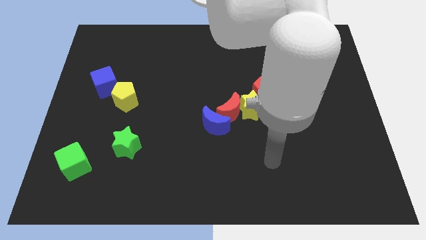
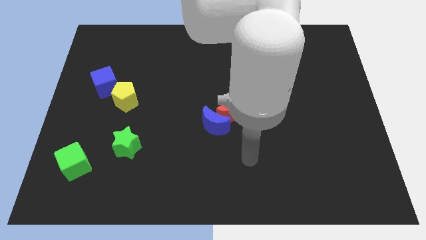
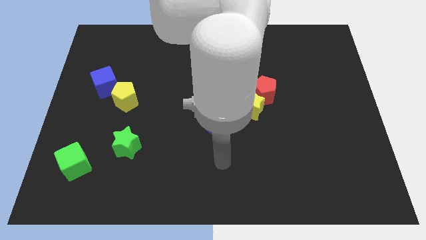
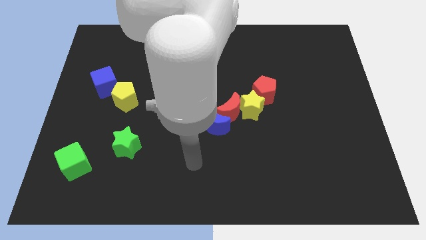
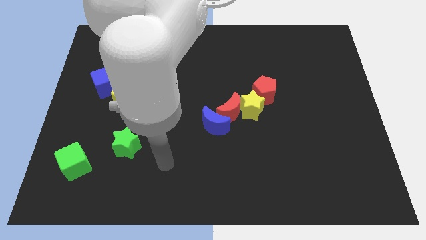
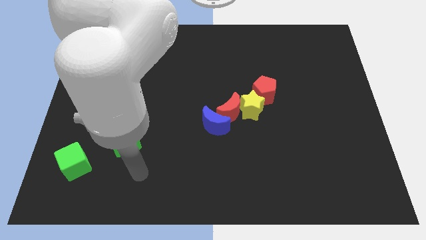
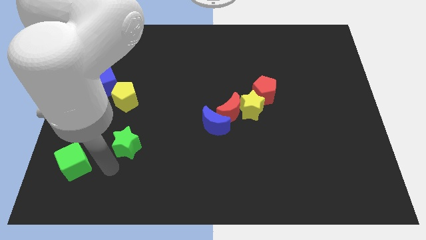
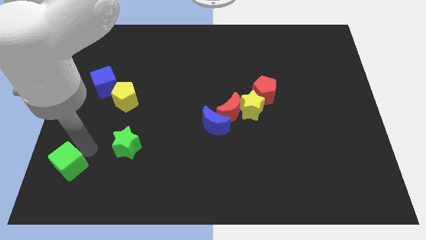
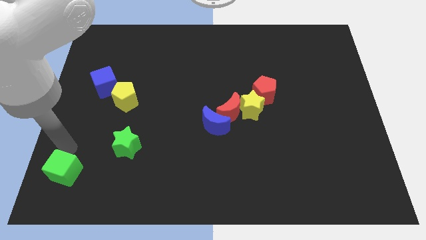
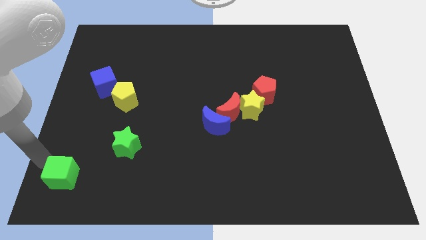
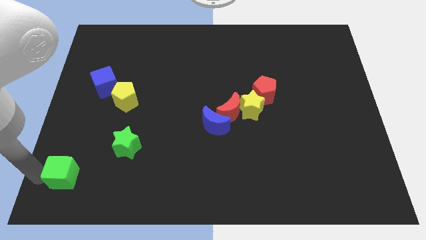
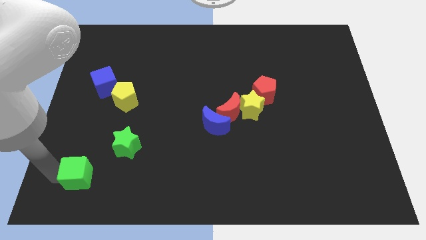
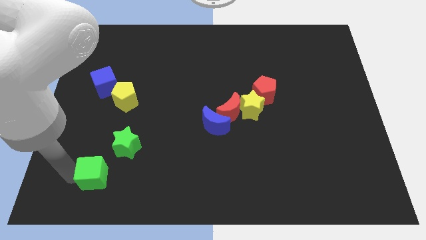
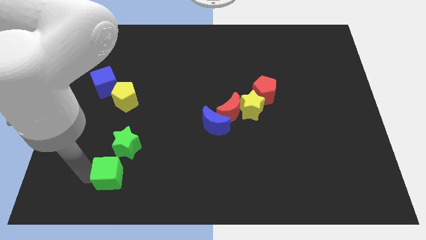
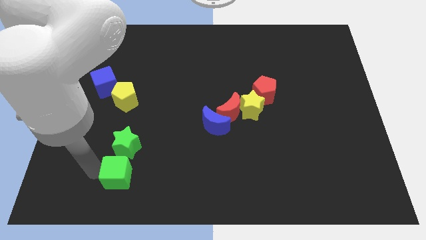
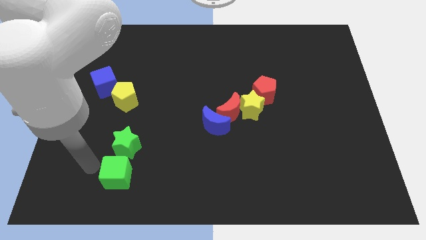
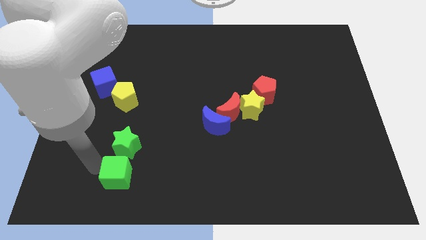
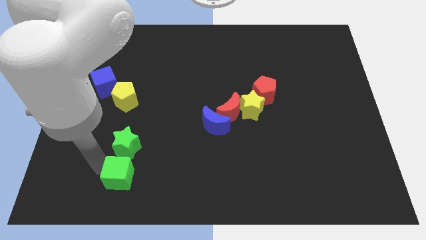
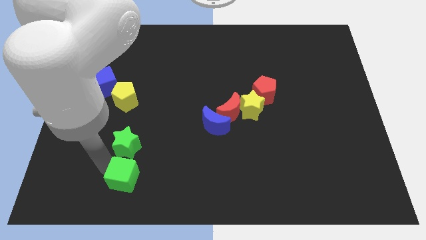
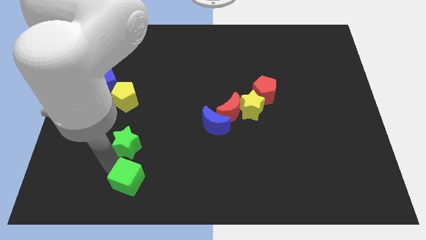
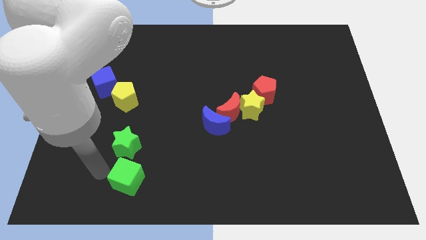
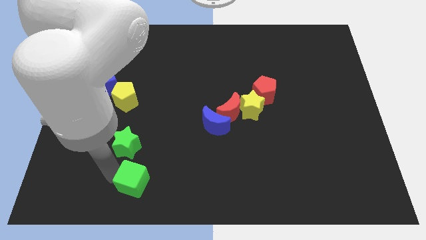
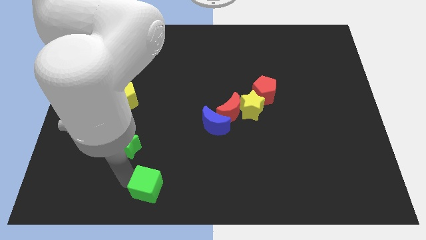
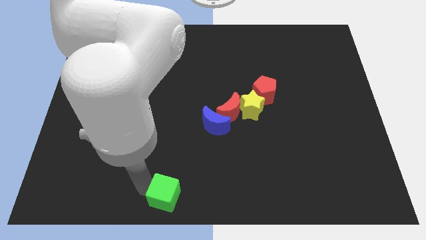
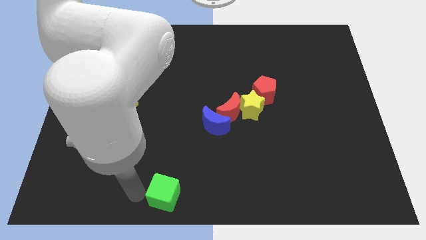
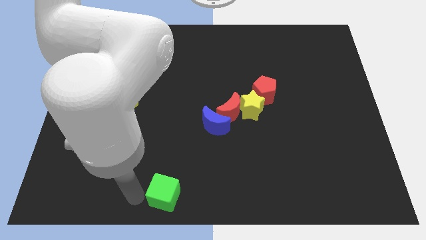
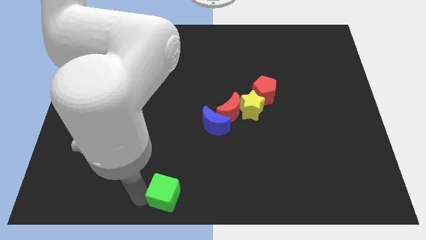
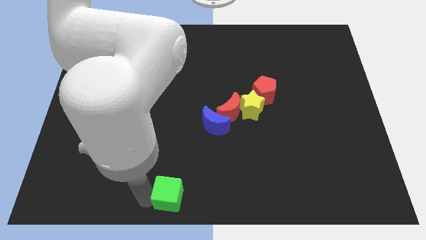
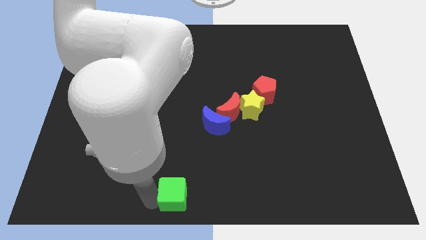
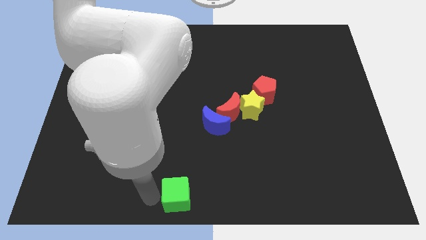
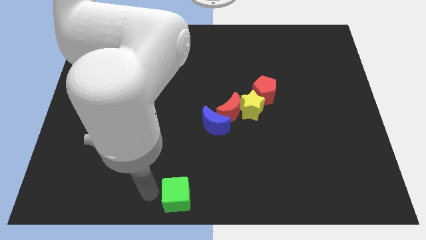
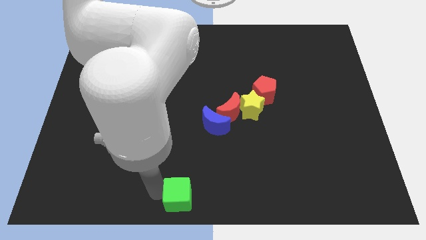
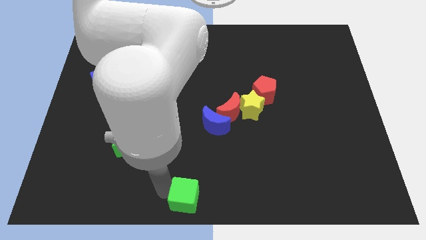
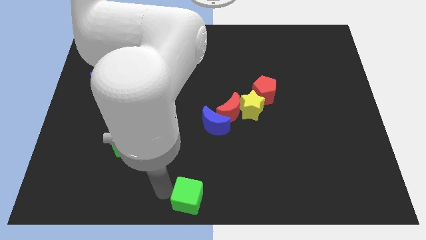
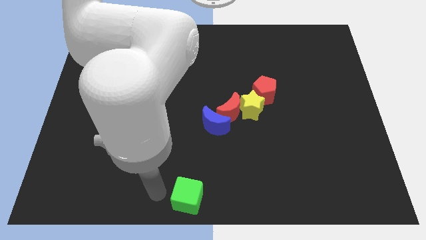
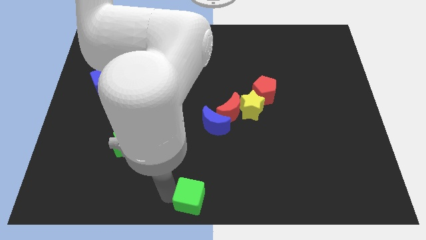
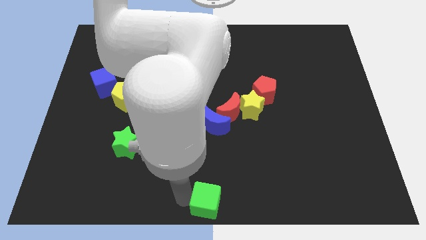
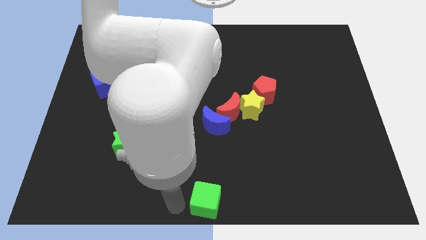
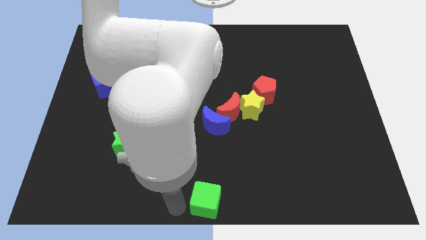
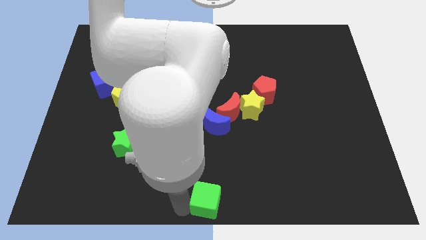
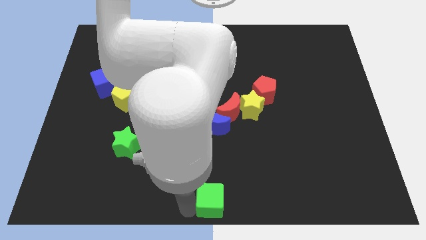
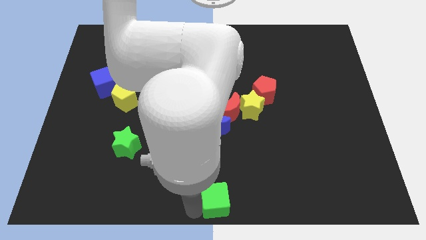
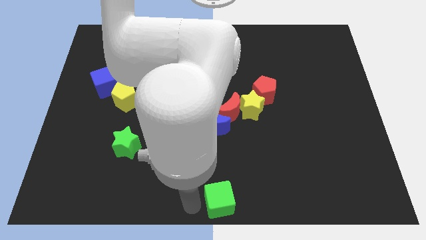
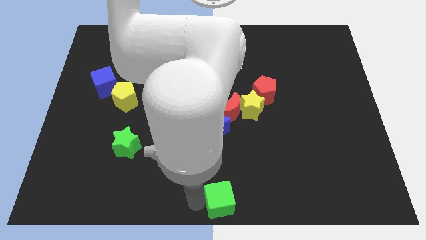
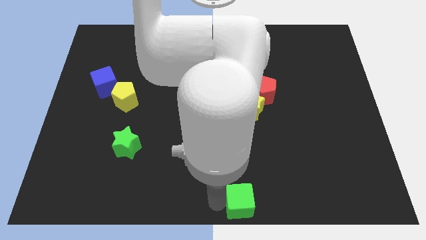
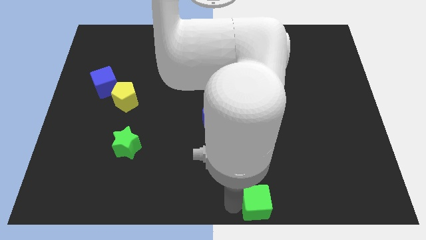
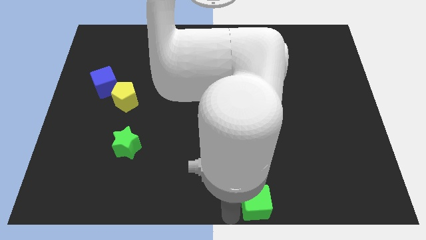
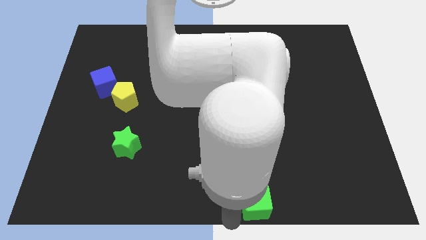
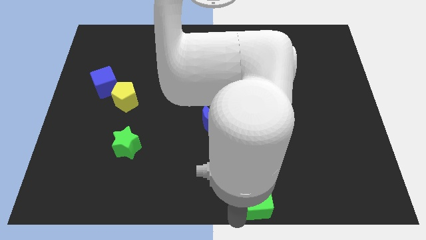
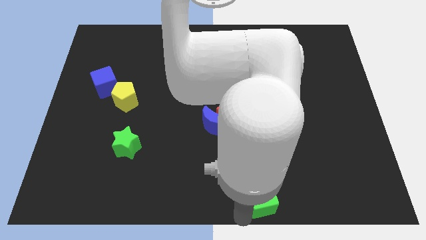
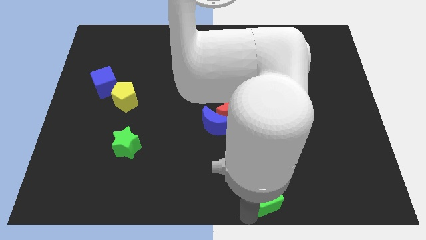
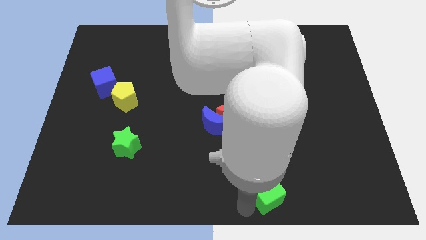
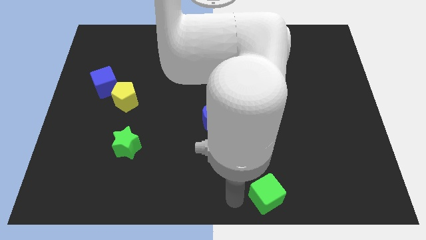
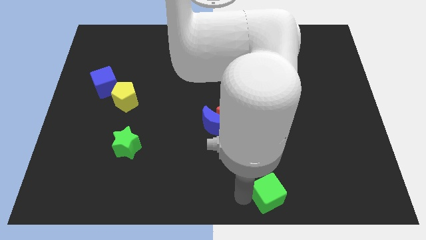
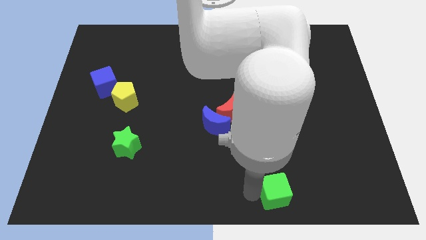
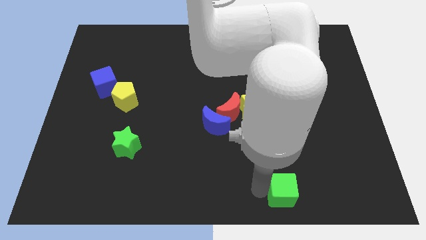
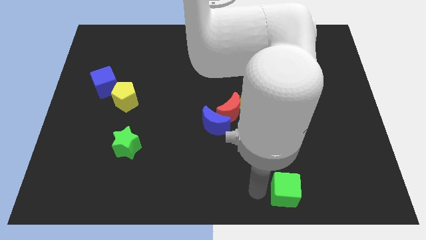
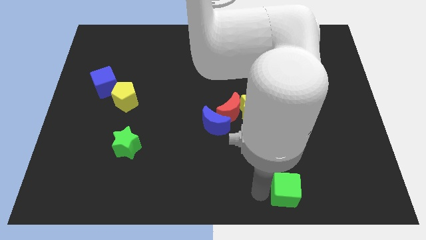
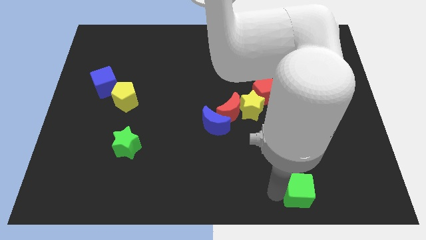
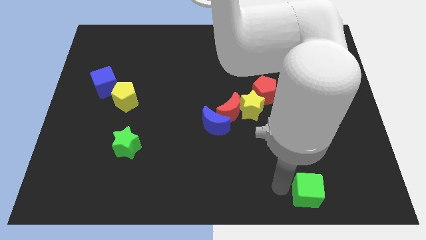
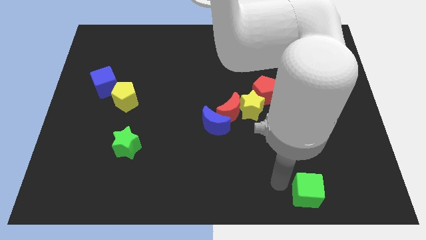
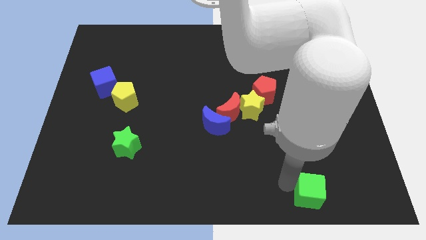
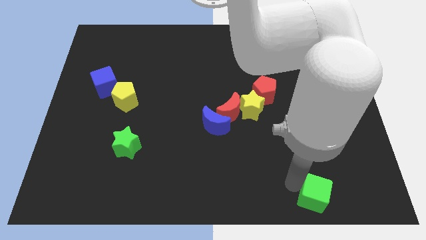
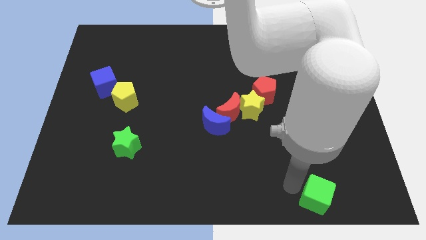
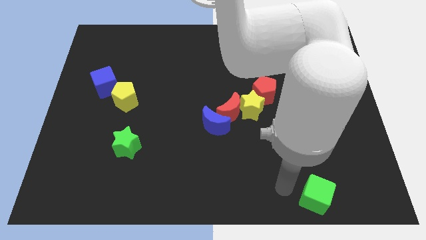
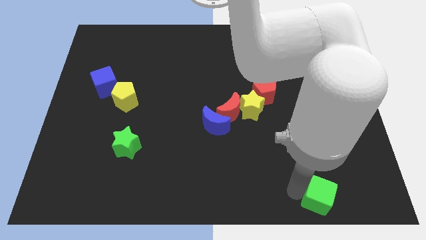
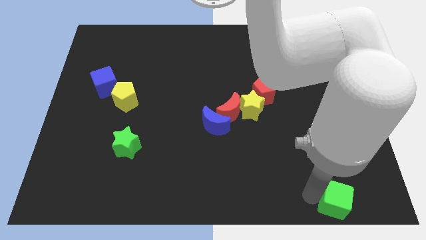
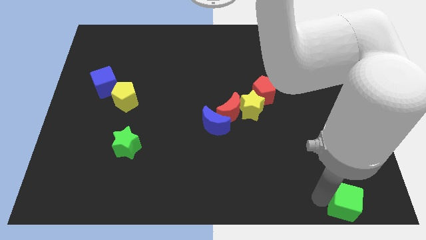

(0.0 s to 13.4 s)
move the green cube to the lower right corner

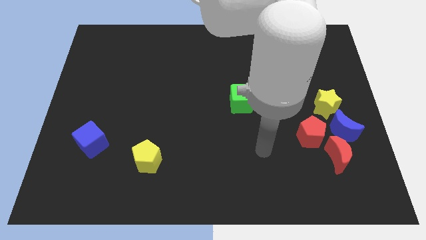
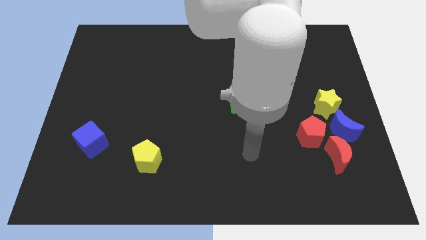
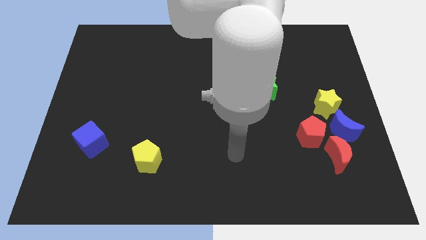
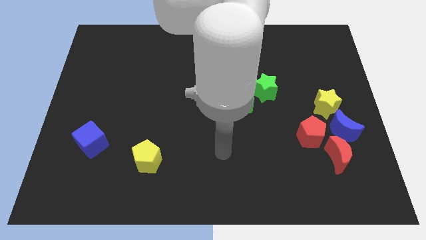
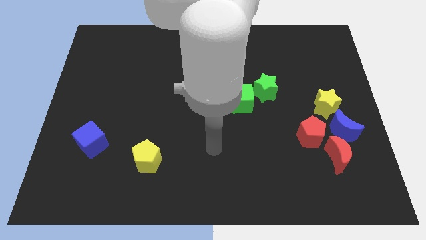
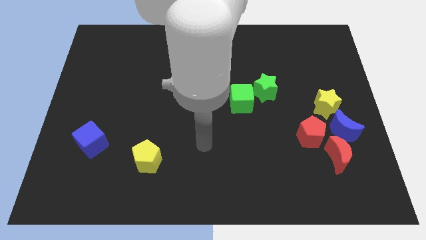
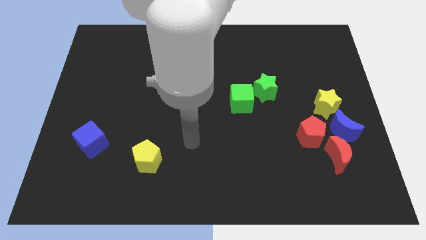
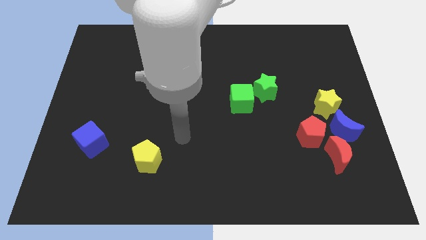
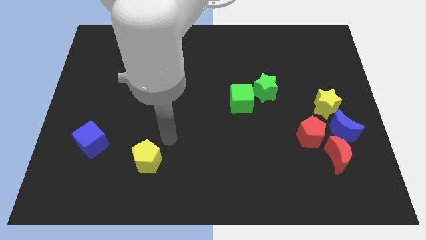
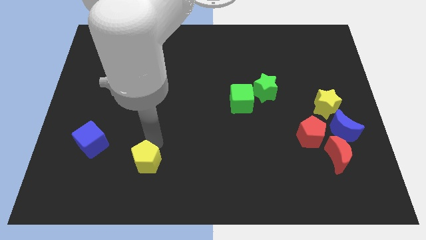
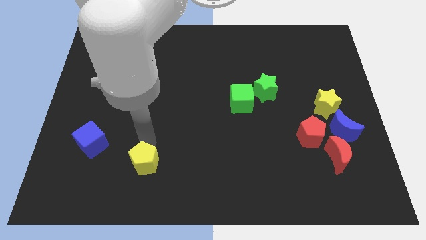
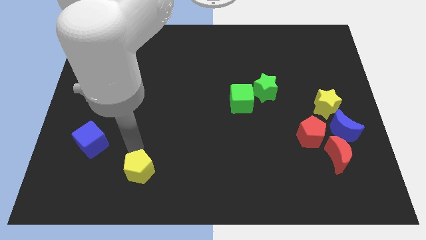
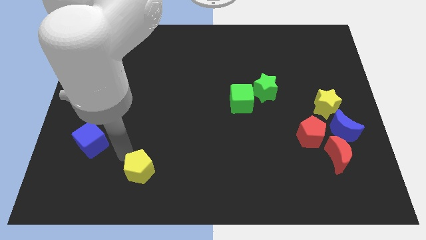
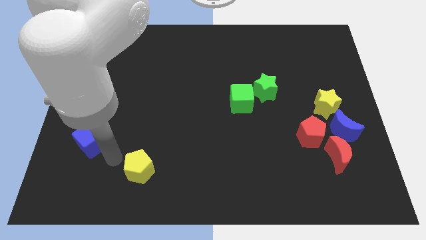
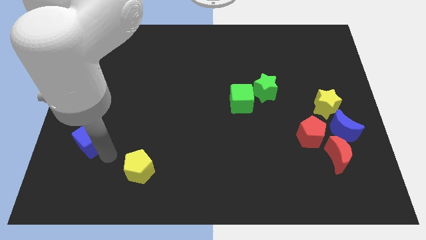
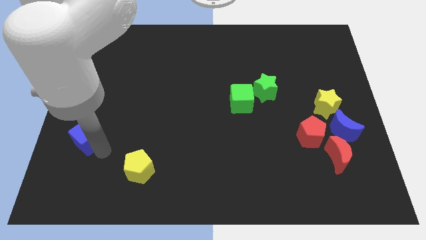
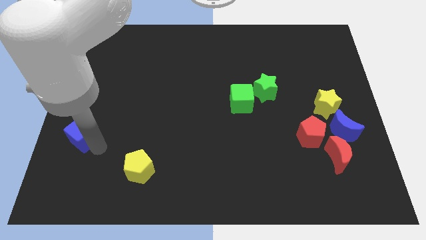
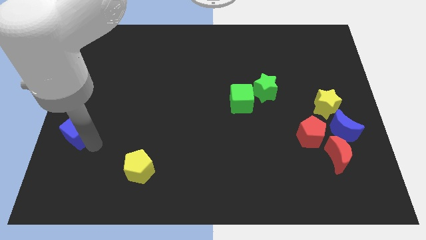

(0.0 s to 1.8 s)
slide the blue cube to the left side
